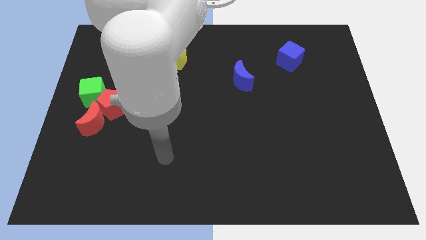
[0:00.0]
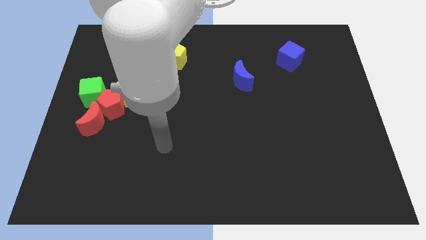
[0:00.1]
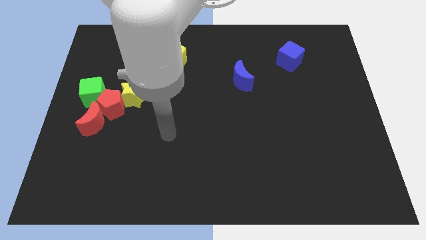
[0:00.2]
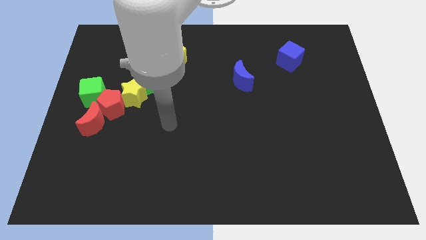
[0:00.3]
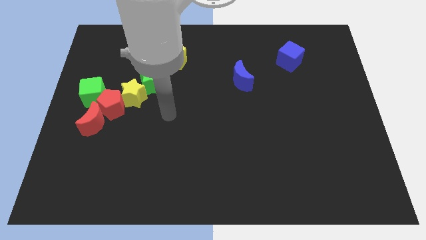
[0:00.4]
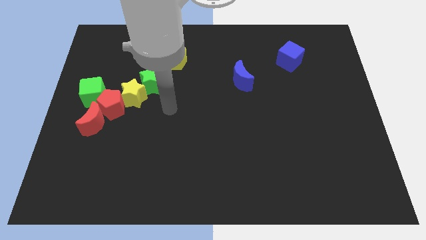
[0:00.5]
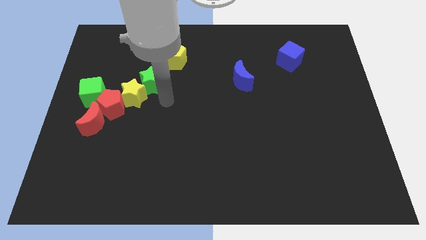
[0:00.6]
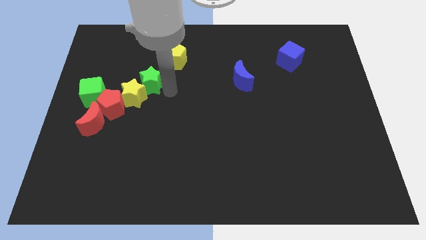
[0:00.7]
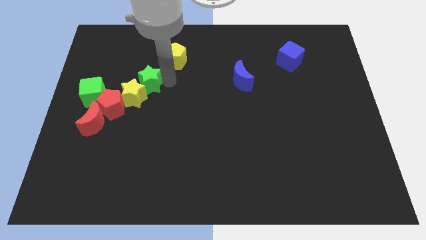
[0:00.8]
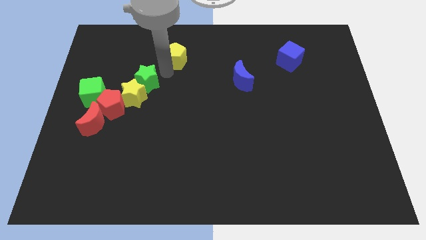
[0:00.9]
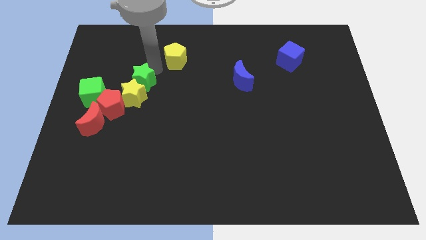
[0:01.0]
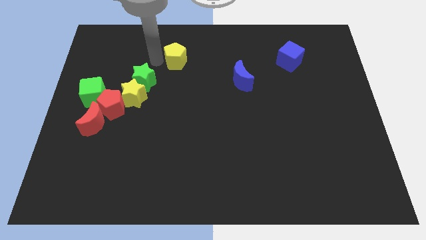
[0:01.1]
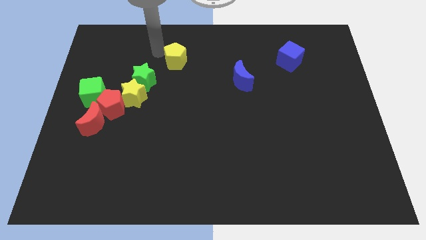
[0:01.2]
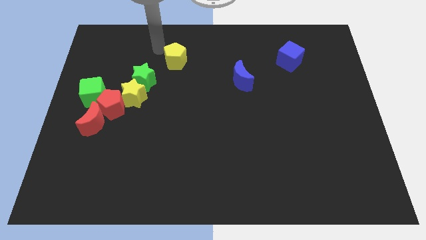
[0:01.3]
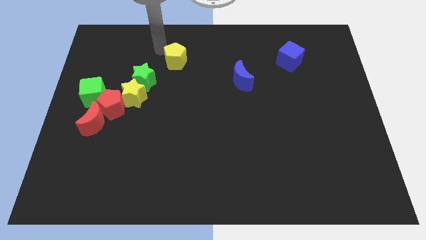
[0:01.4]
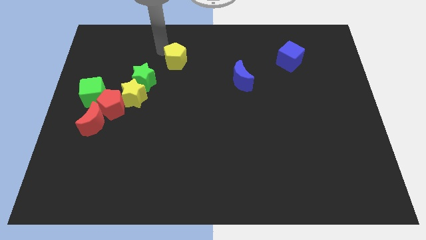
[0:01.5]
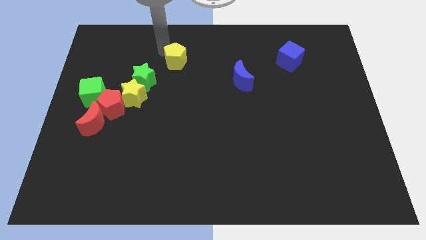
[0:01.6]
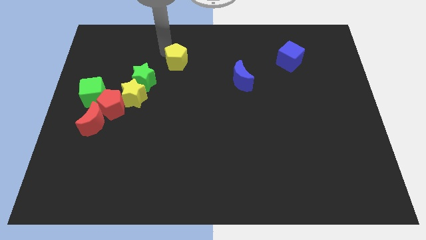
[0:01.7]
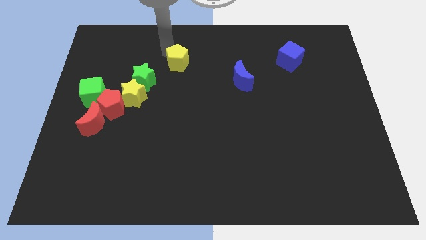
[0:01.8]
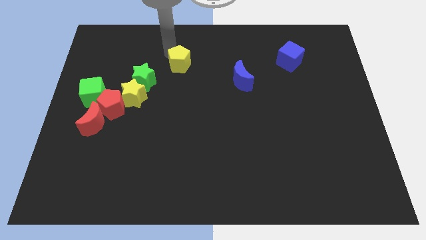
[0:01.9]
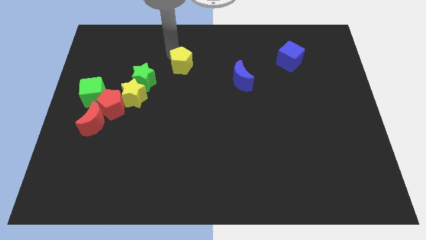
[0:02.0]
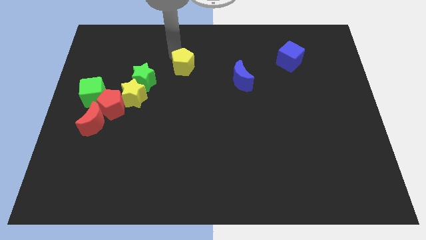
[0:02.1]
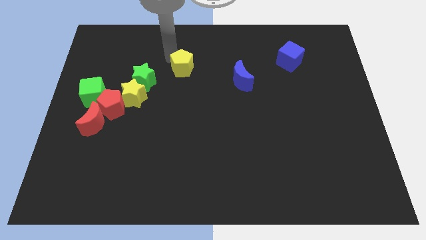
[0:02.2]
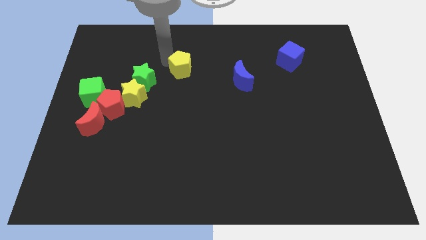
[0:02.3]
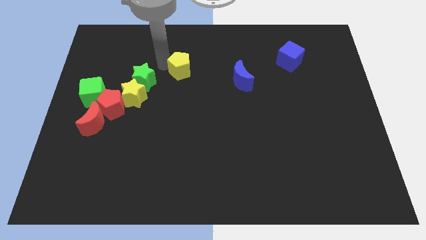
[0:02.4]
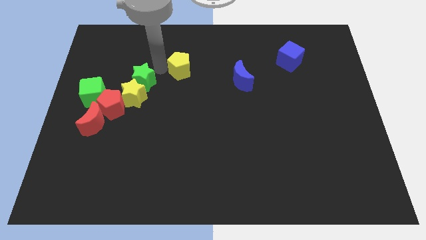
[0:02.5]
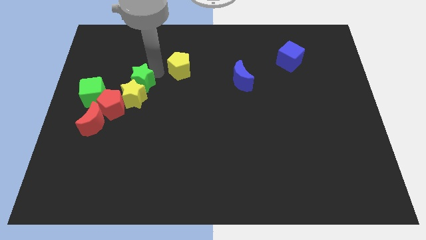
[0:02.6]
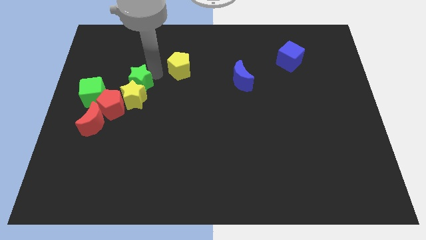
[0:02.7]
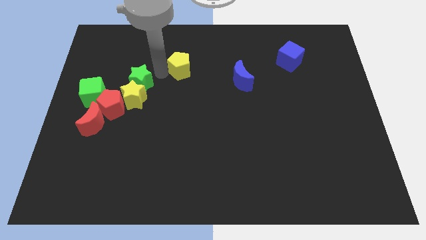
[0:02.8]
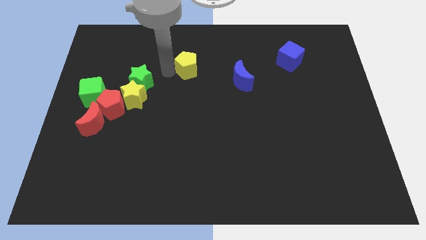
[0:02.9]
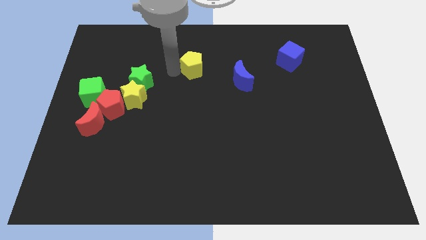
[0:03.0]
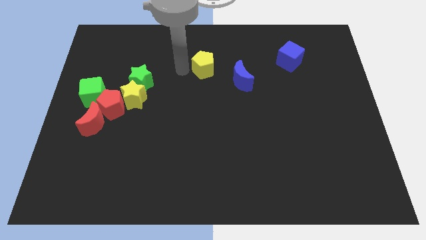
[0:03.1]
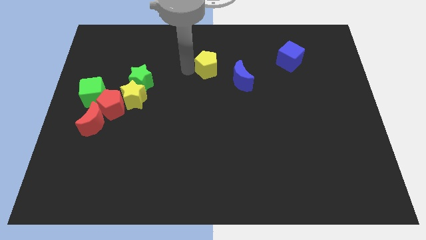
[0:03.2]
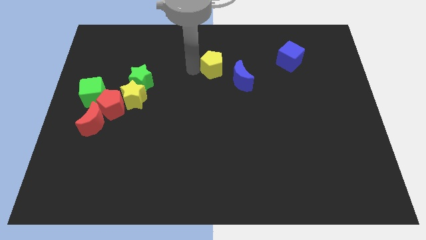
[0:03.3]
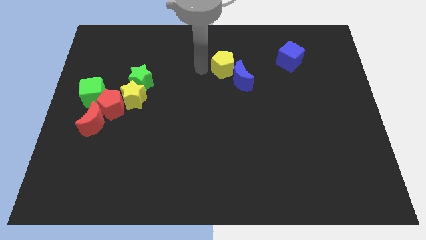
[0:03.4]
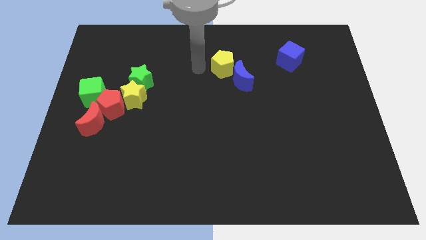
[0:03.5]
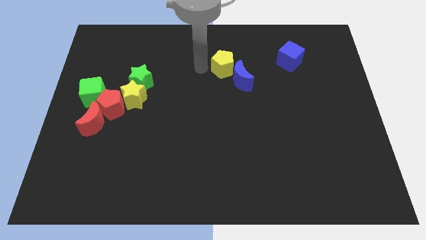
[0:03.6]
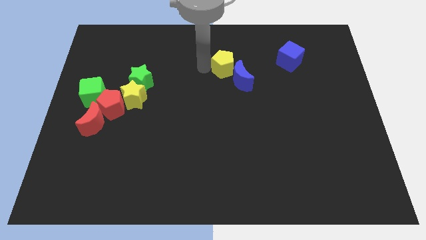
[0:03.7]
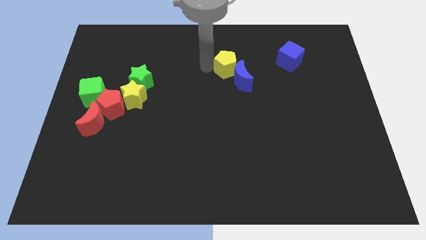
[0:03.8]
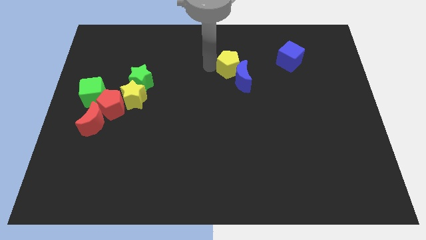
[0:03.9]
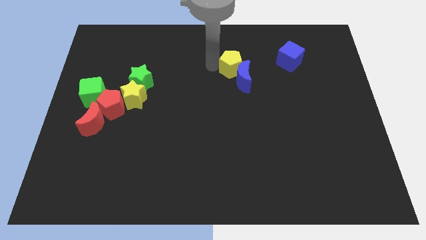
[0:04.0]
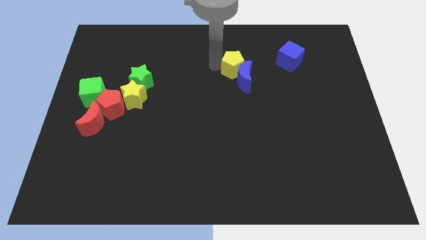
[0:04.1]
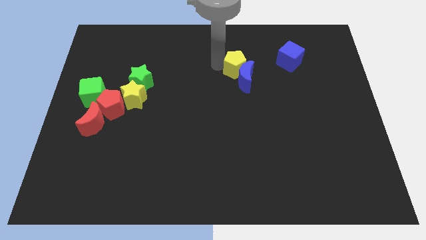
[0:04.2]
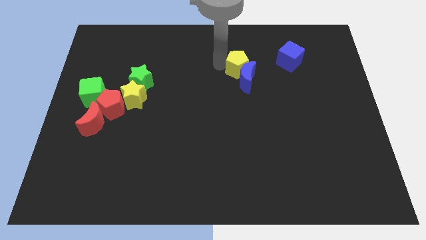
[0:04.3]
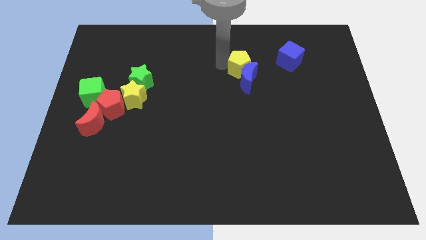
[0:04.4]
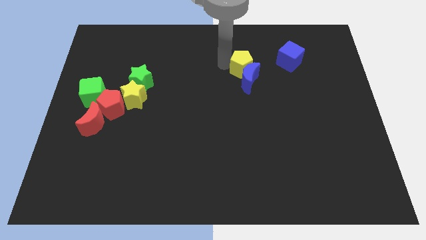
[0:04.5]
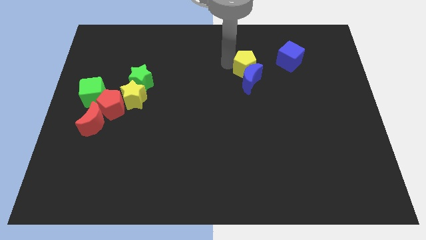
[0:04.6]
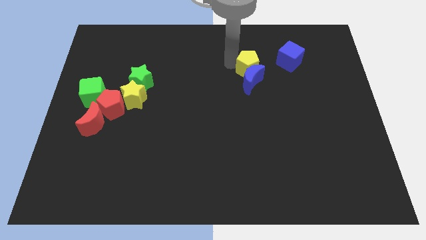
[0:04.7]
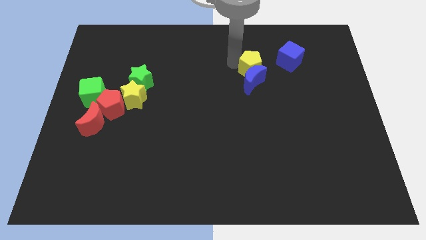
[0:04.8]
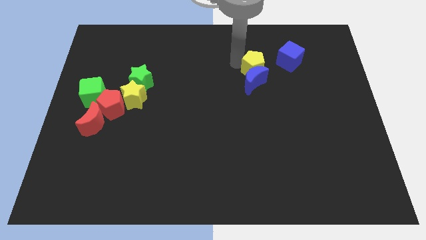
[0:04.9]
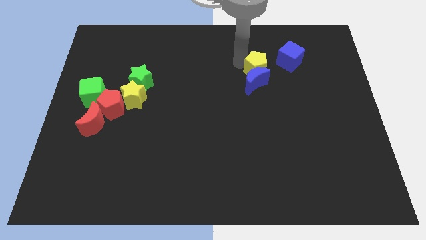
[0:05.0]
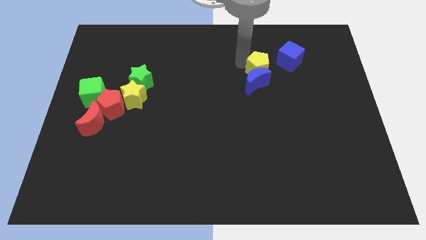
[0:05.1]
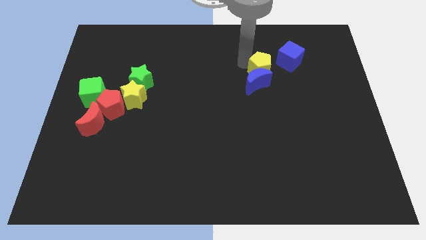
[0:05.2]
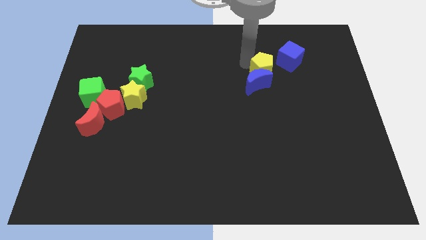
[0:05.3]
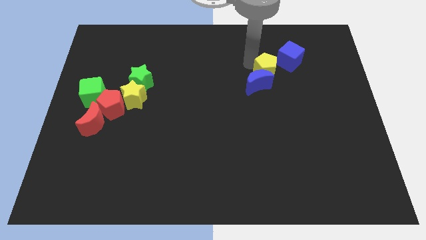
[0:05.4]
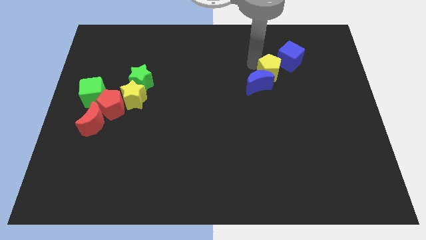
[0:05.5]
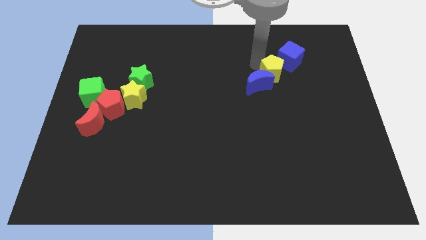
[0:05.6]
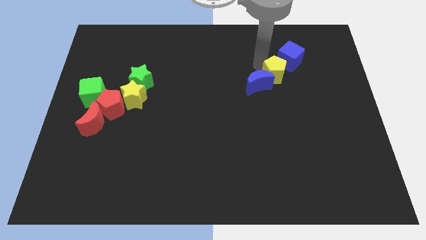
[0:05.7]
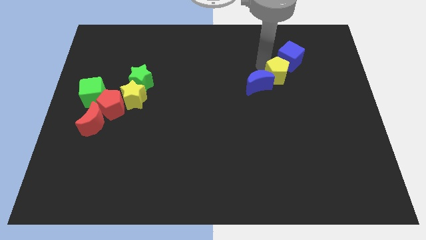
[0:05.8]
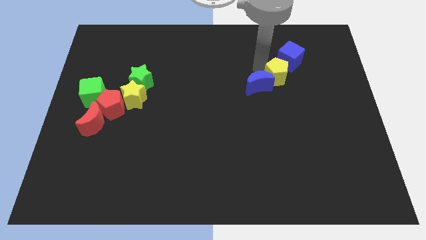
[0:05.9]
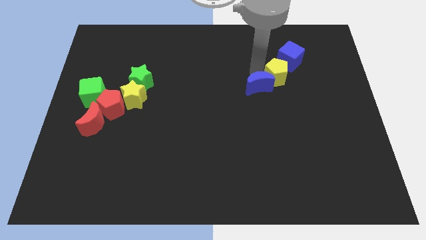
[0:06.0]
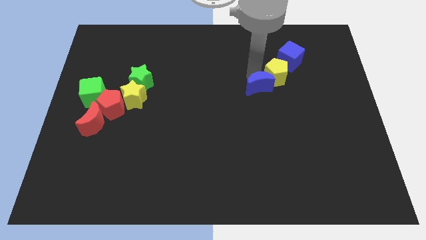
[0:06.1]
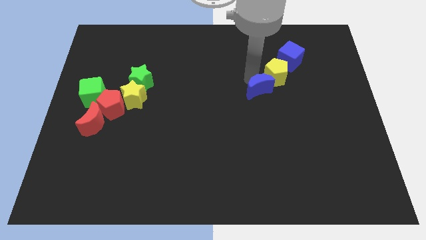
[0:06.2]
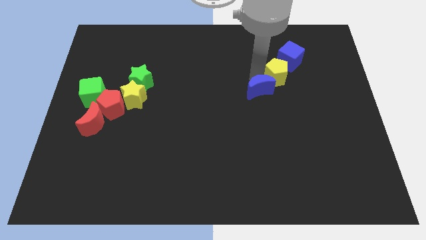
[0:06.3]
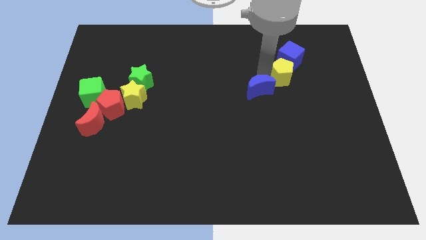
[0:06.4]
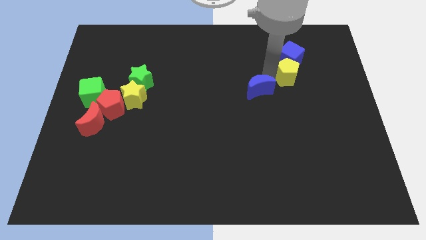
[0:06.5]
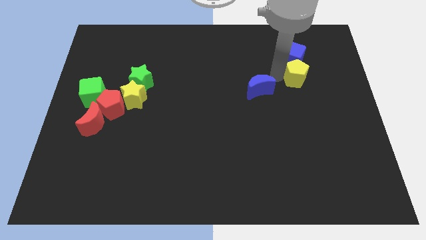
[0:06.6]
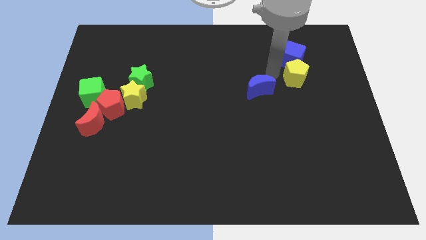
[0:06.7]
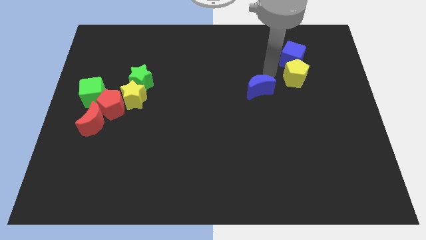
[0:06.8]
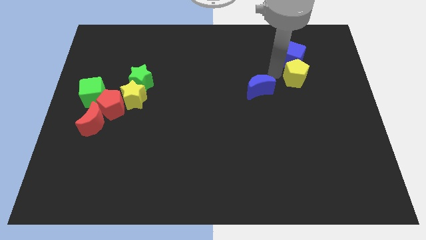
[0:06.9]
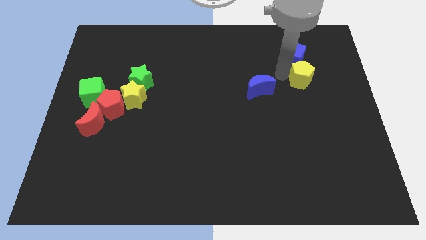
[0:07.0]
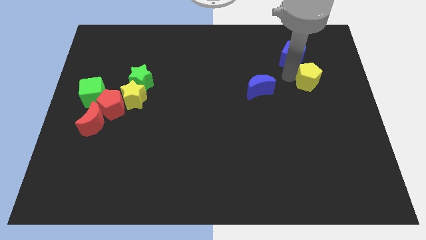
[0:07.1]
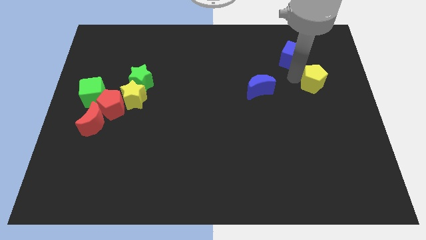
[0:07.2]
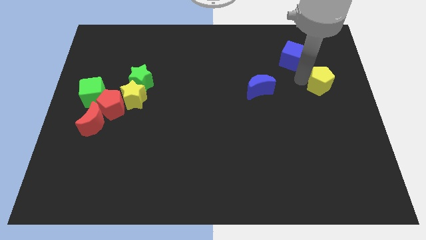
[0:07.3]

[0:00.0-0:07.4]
push the yellow pentagon to the right side of the board
